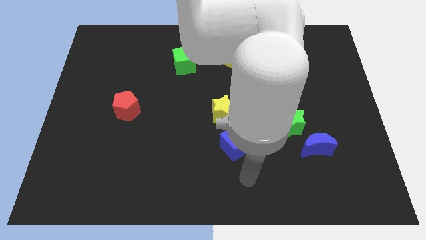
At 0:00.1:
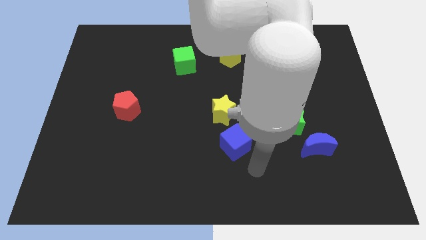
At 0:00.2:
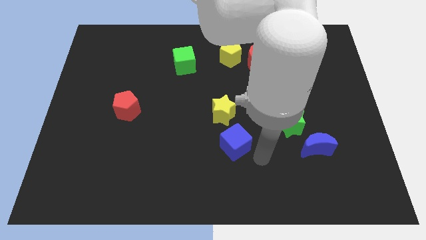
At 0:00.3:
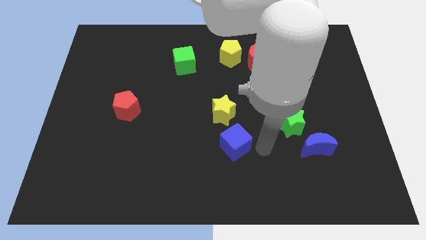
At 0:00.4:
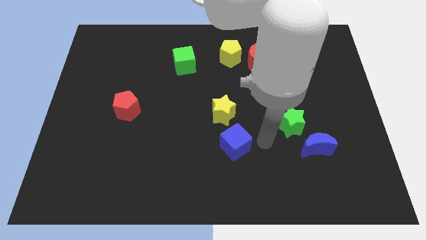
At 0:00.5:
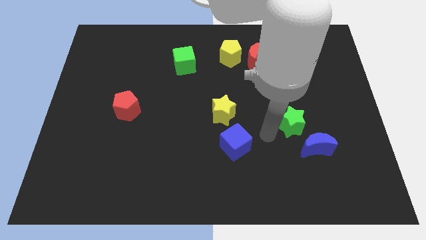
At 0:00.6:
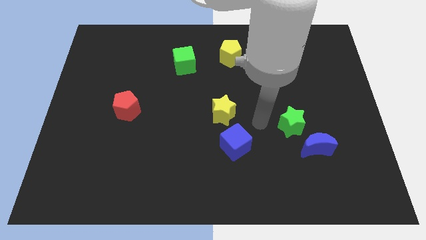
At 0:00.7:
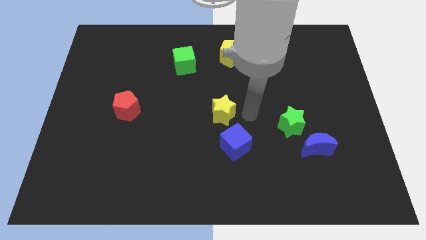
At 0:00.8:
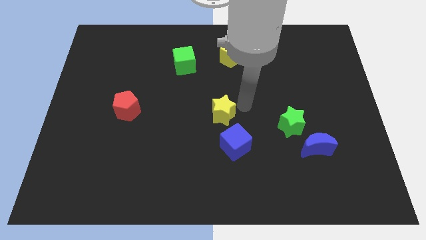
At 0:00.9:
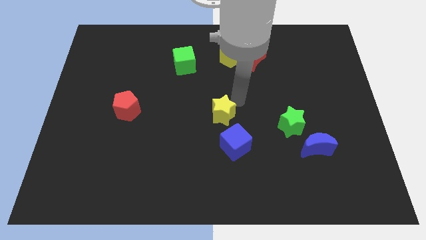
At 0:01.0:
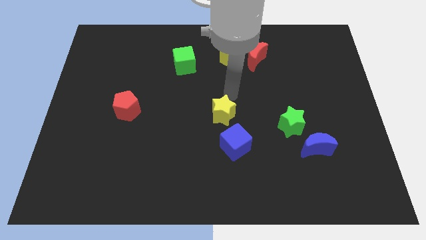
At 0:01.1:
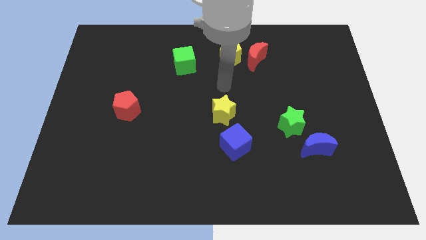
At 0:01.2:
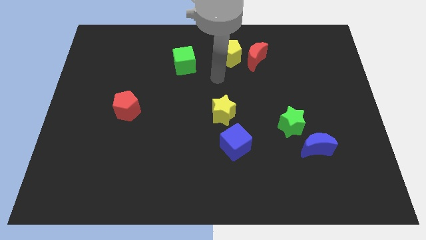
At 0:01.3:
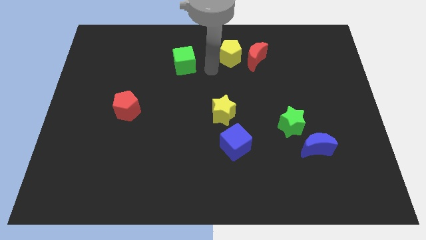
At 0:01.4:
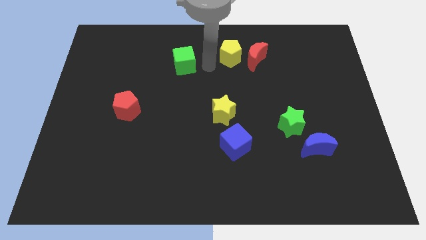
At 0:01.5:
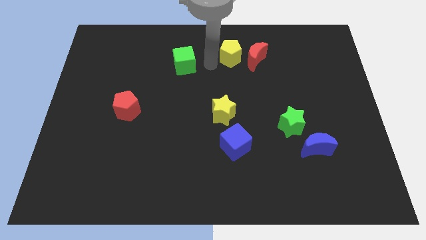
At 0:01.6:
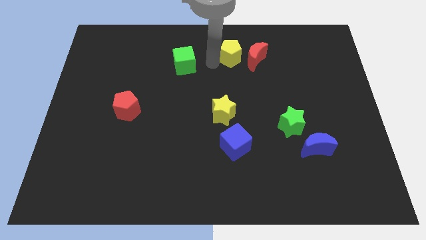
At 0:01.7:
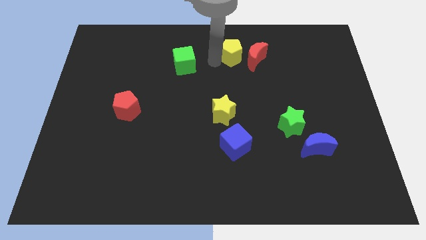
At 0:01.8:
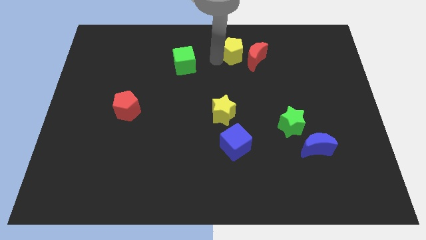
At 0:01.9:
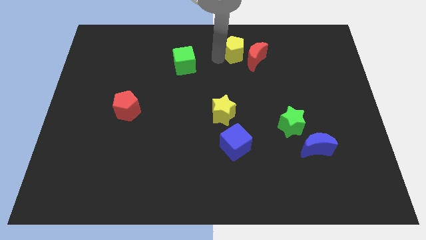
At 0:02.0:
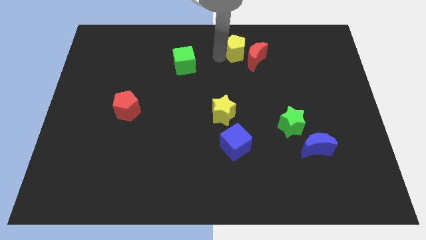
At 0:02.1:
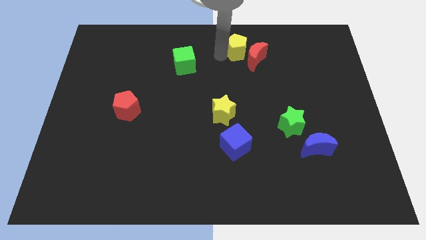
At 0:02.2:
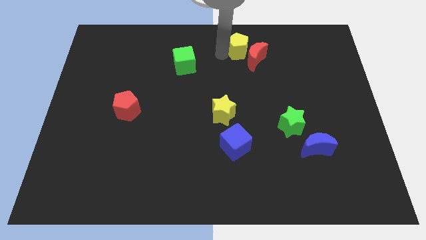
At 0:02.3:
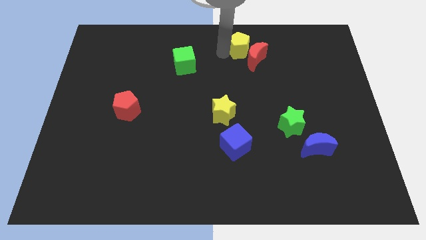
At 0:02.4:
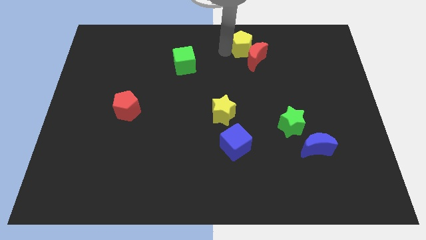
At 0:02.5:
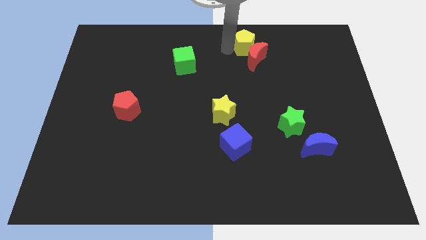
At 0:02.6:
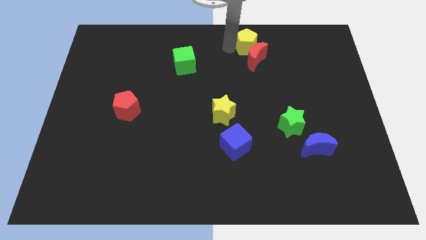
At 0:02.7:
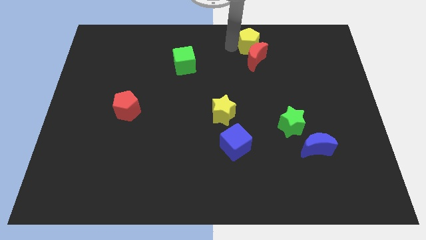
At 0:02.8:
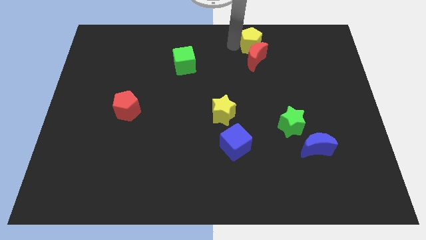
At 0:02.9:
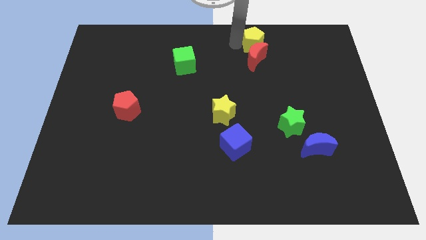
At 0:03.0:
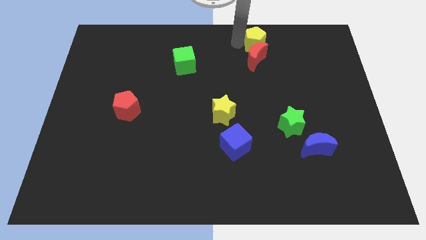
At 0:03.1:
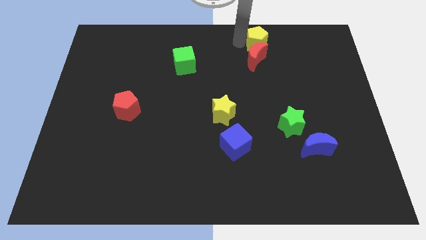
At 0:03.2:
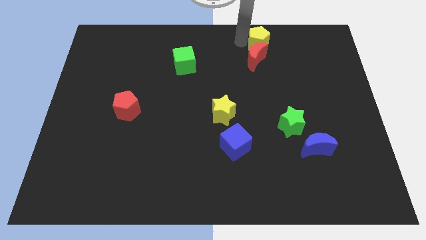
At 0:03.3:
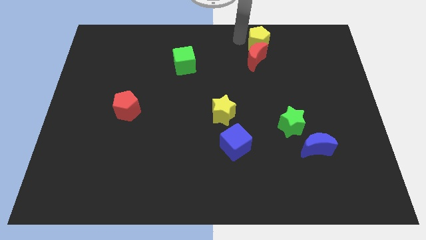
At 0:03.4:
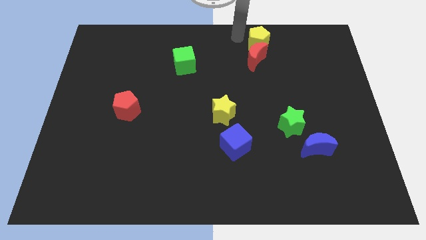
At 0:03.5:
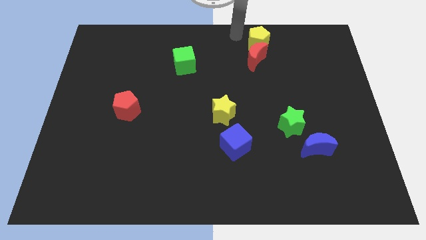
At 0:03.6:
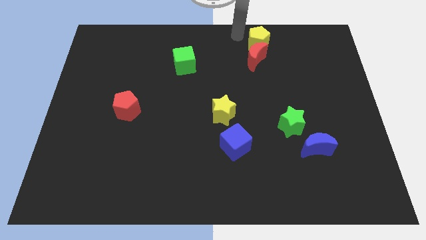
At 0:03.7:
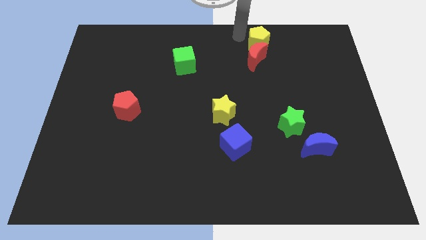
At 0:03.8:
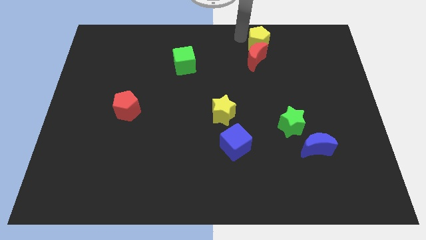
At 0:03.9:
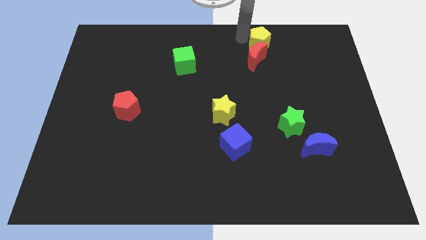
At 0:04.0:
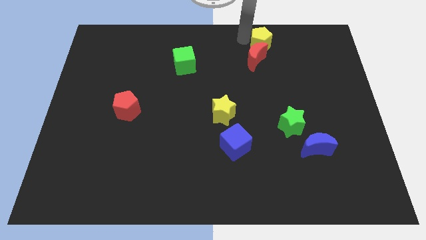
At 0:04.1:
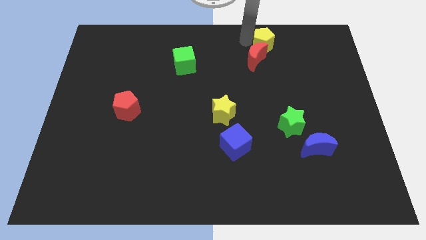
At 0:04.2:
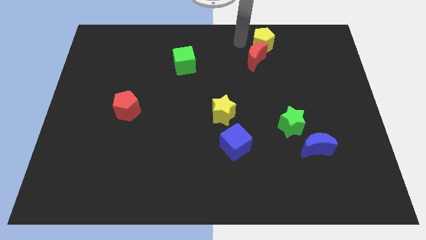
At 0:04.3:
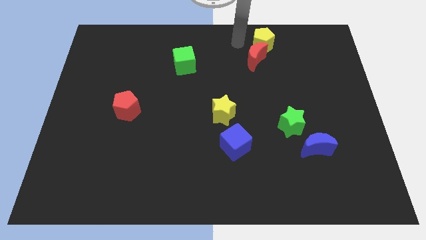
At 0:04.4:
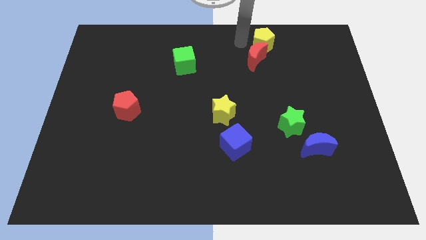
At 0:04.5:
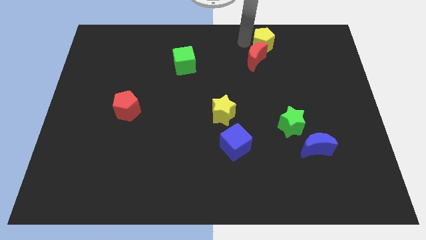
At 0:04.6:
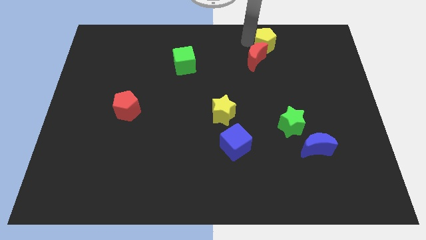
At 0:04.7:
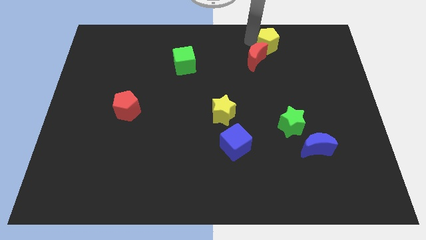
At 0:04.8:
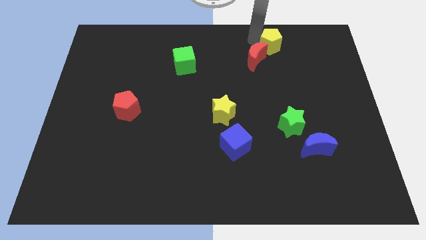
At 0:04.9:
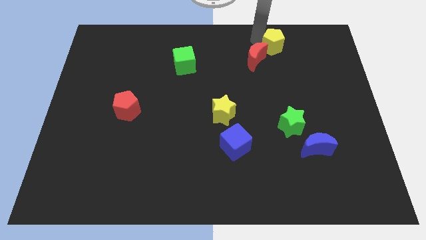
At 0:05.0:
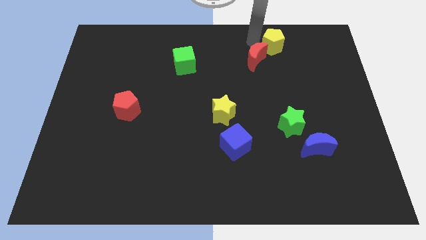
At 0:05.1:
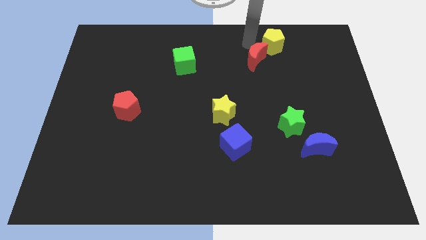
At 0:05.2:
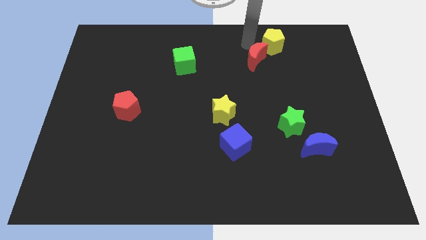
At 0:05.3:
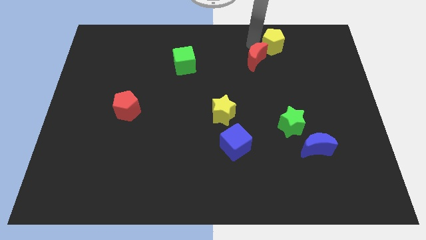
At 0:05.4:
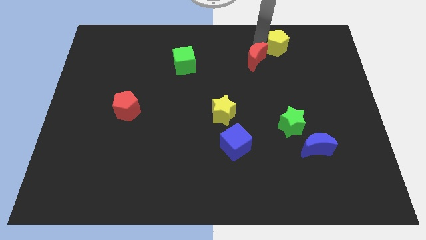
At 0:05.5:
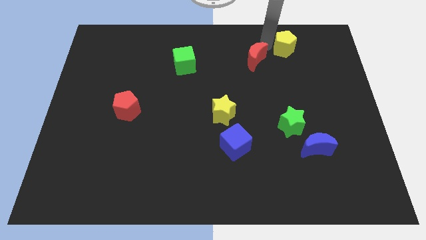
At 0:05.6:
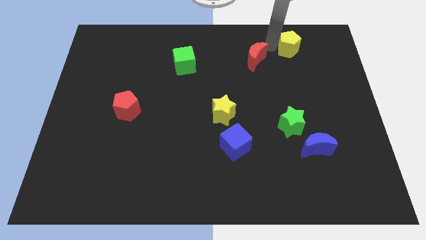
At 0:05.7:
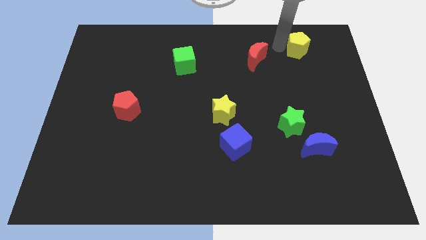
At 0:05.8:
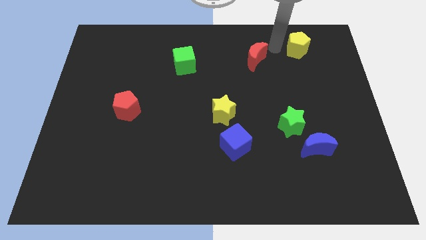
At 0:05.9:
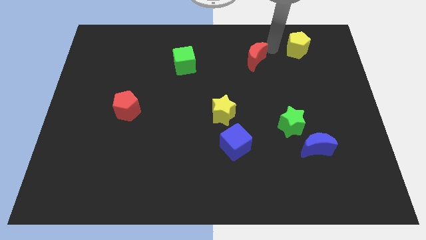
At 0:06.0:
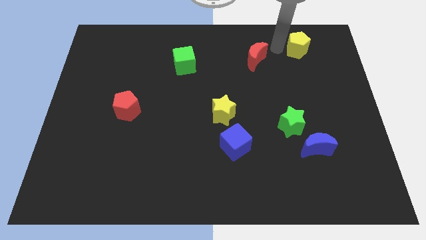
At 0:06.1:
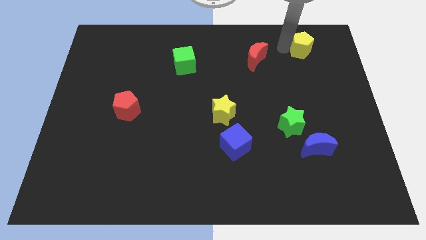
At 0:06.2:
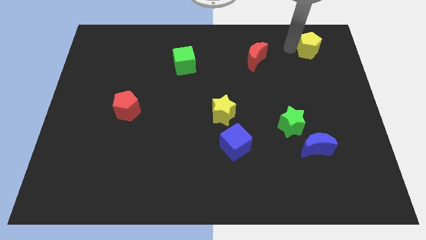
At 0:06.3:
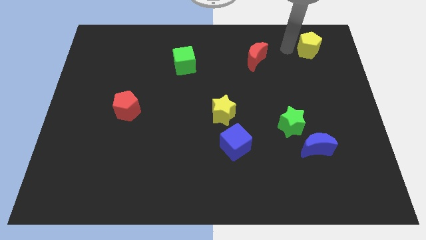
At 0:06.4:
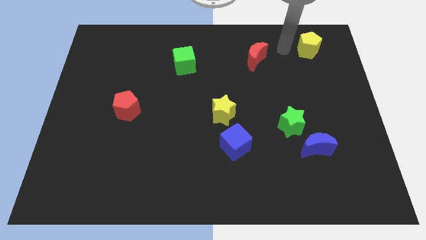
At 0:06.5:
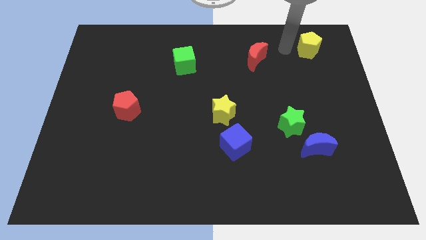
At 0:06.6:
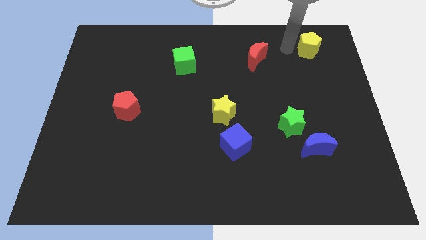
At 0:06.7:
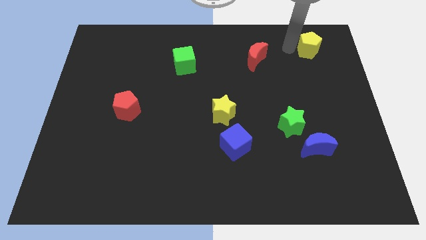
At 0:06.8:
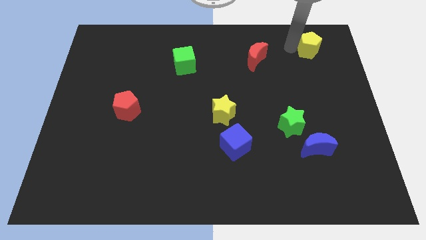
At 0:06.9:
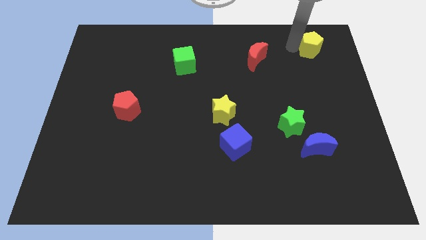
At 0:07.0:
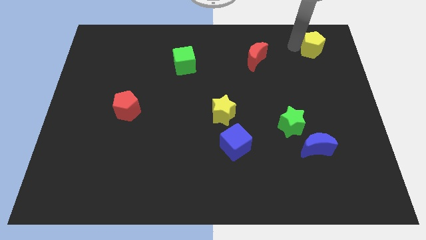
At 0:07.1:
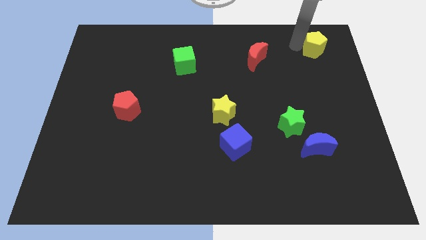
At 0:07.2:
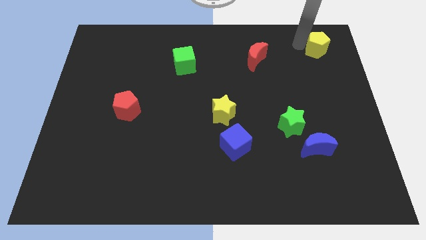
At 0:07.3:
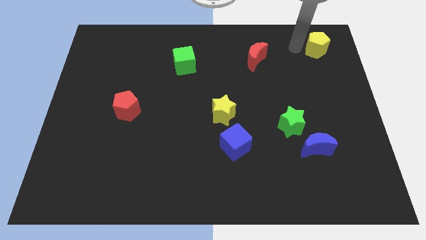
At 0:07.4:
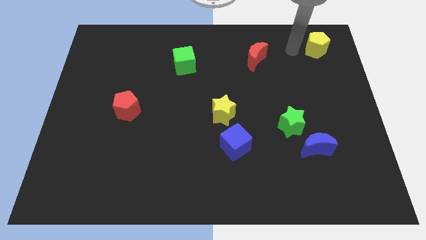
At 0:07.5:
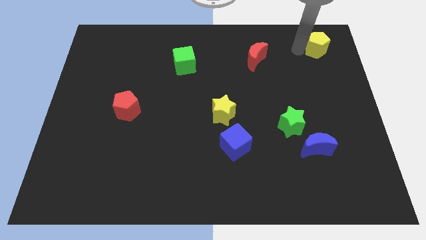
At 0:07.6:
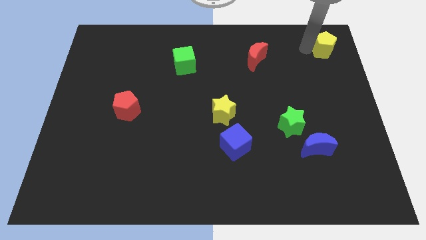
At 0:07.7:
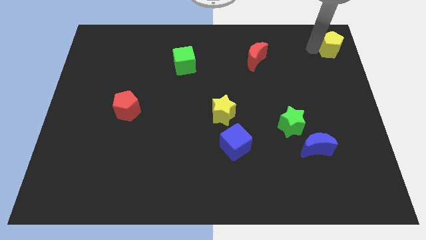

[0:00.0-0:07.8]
slide the yellow pentagon to the top right of the board
